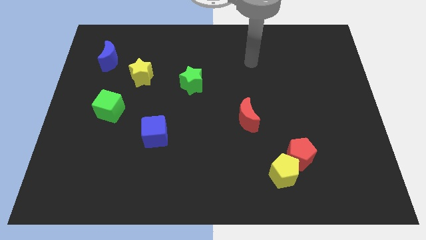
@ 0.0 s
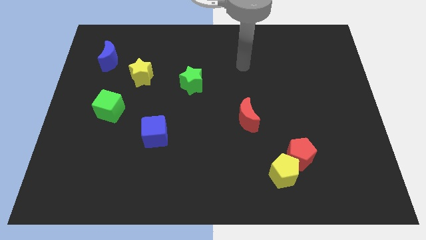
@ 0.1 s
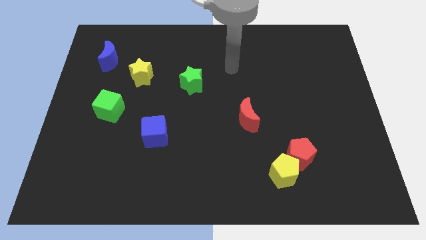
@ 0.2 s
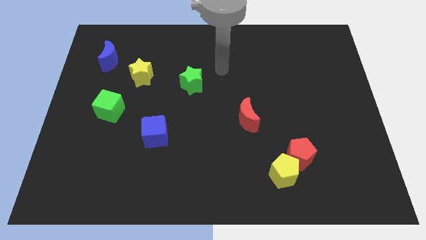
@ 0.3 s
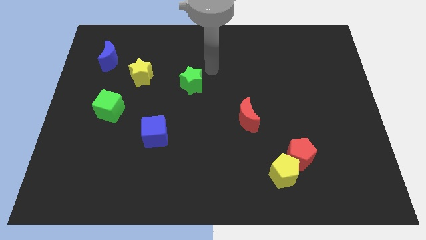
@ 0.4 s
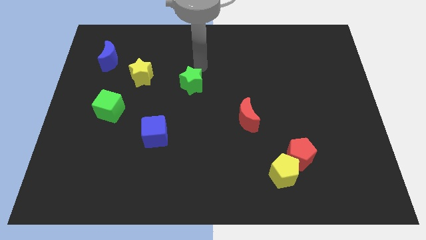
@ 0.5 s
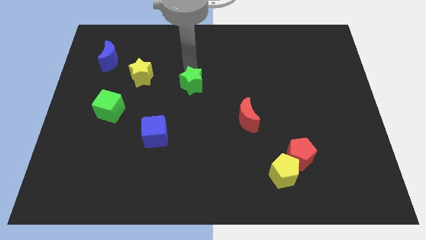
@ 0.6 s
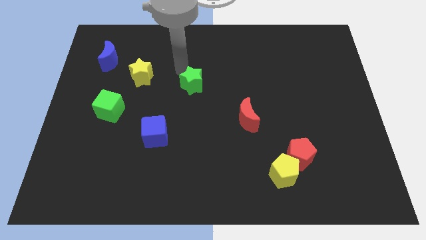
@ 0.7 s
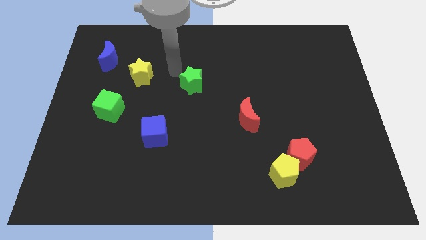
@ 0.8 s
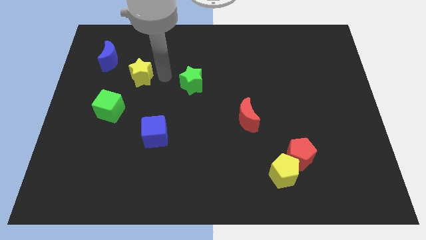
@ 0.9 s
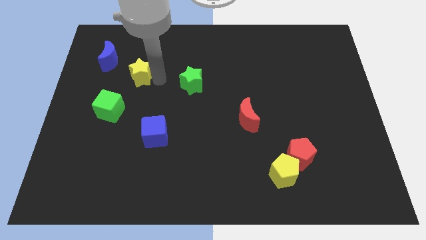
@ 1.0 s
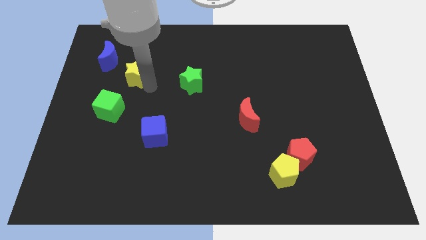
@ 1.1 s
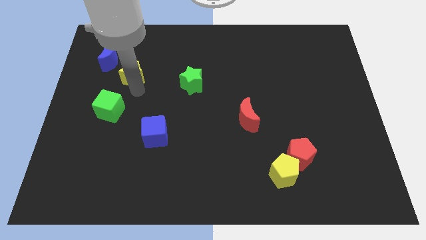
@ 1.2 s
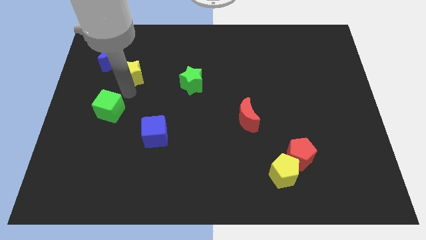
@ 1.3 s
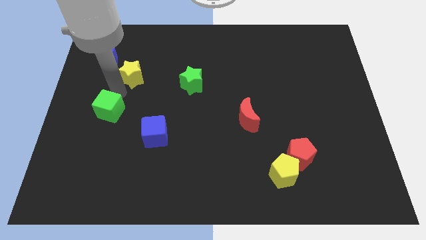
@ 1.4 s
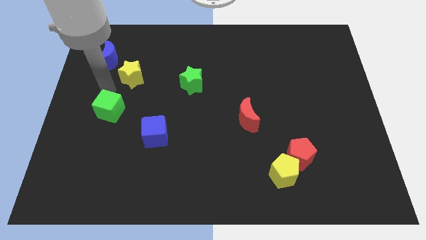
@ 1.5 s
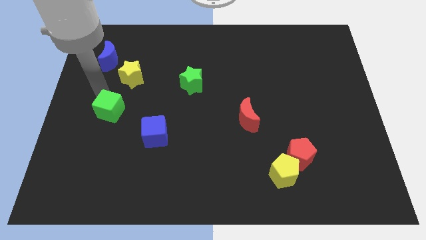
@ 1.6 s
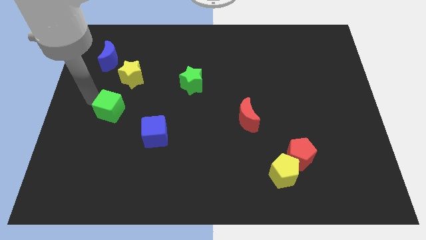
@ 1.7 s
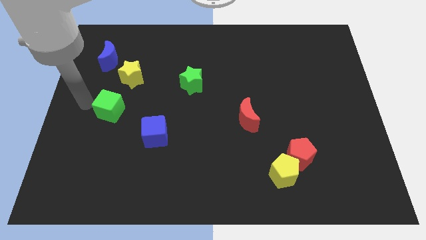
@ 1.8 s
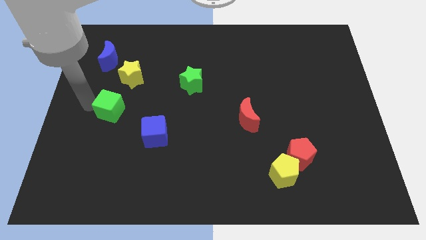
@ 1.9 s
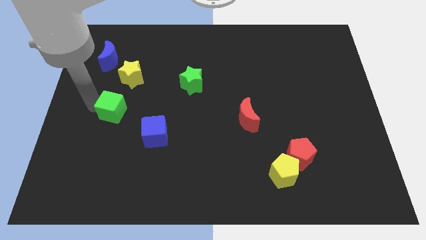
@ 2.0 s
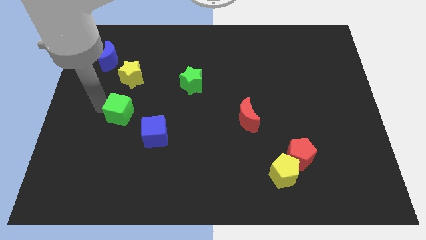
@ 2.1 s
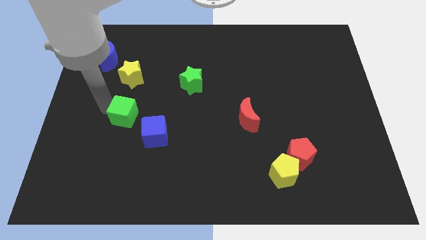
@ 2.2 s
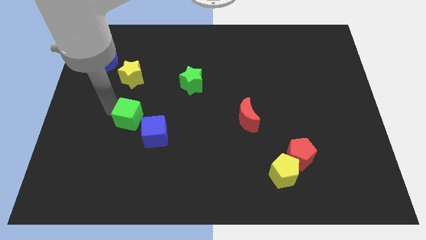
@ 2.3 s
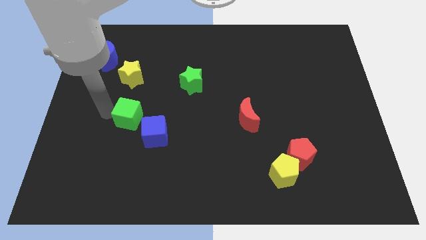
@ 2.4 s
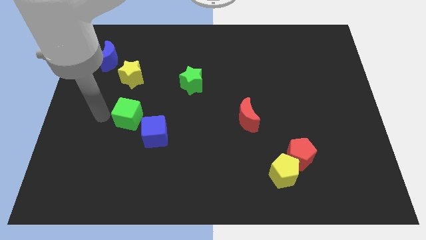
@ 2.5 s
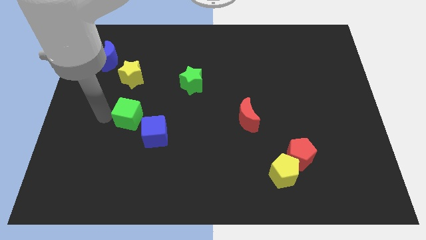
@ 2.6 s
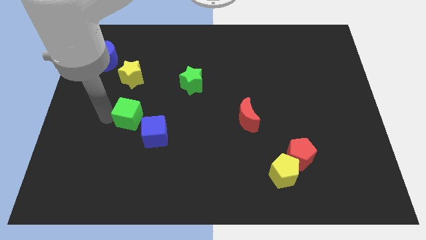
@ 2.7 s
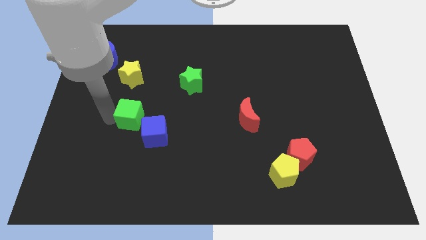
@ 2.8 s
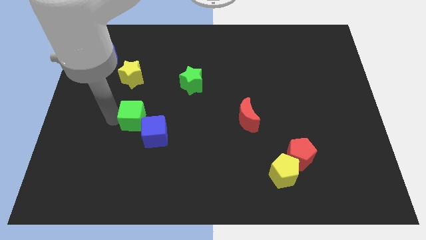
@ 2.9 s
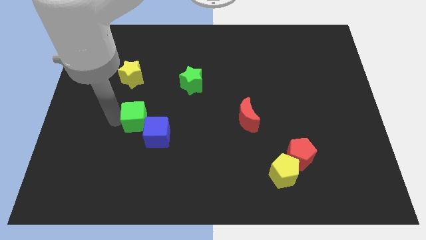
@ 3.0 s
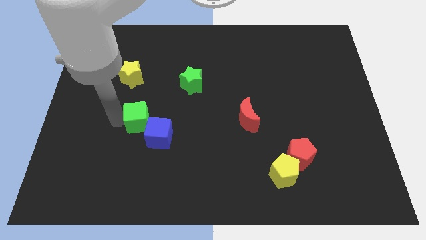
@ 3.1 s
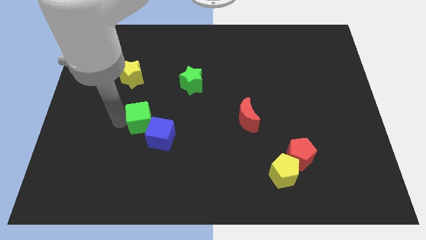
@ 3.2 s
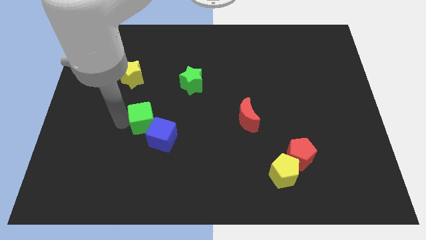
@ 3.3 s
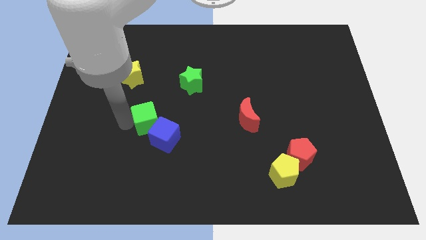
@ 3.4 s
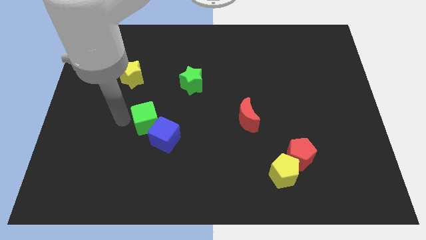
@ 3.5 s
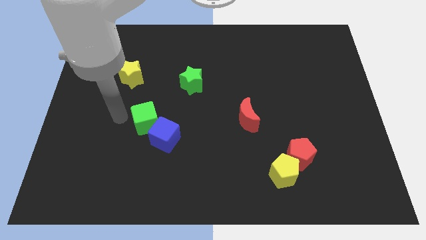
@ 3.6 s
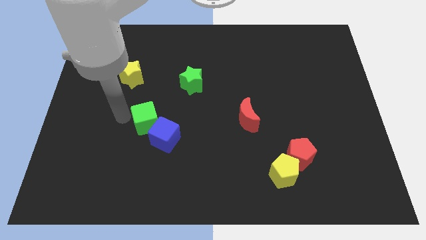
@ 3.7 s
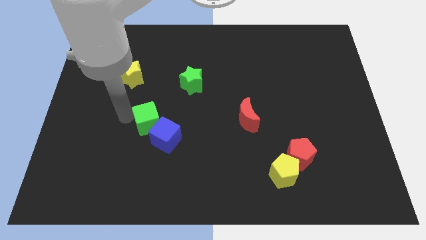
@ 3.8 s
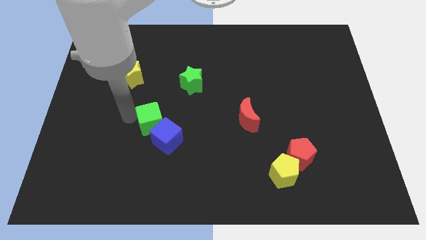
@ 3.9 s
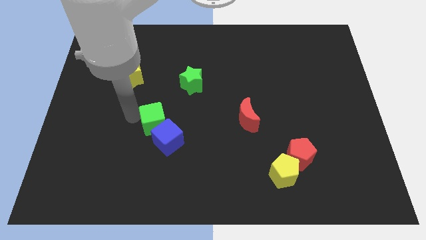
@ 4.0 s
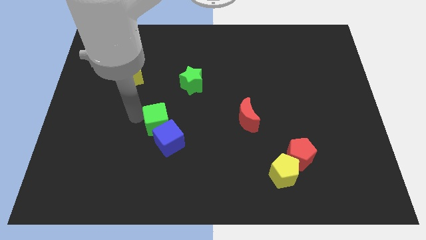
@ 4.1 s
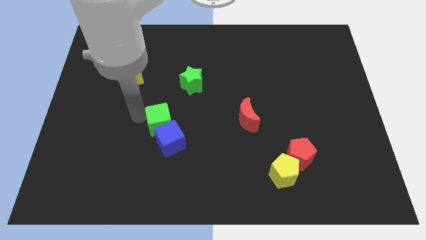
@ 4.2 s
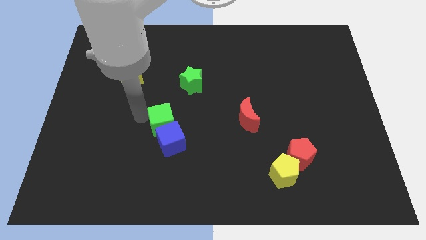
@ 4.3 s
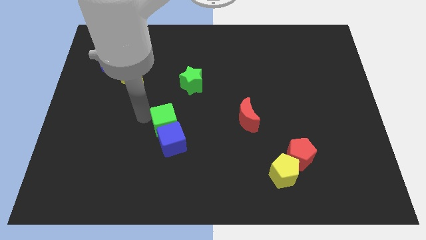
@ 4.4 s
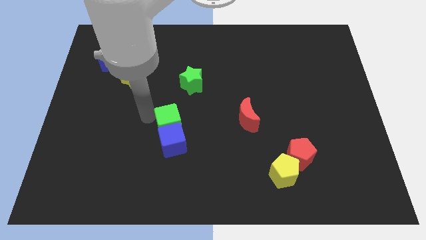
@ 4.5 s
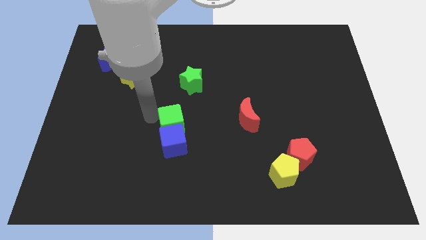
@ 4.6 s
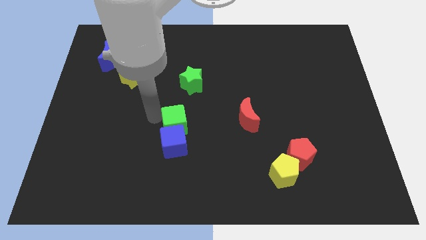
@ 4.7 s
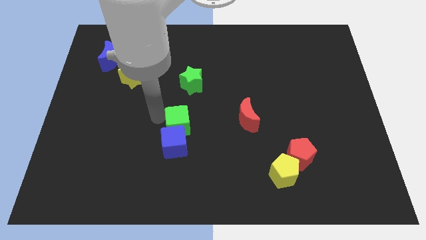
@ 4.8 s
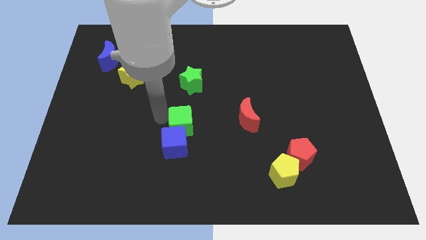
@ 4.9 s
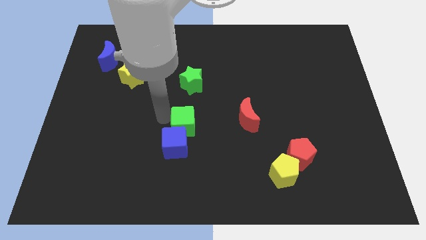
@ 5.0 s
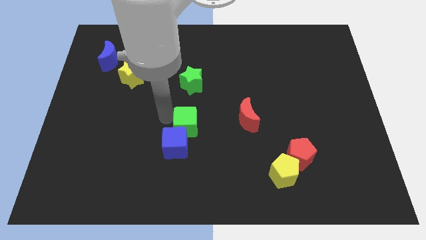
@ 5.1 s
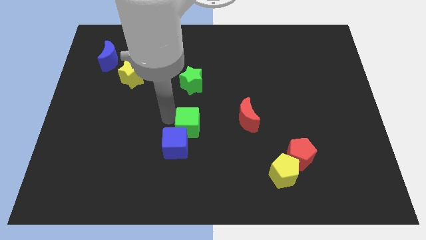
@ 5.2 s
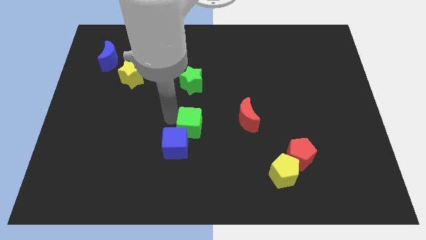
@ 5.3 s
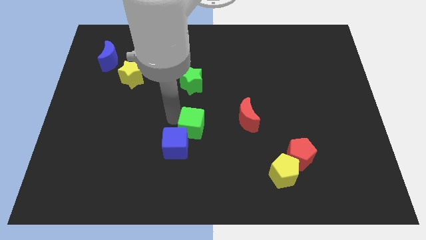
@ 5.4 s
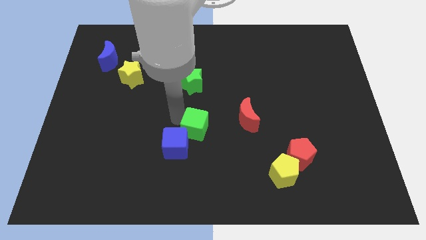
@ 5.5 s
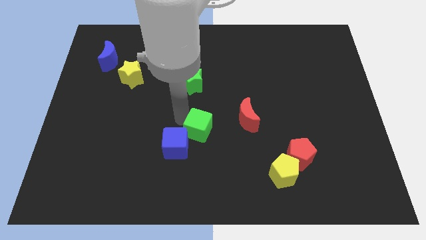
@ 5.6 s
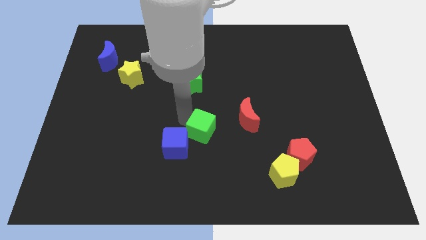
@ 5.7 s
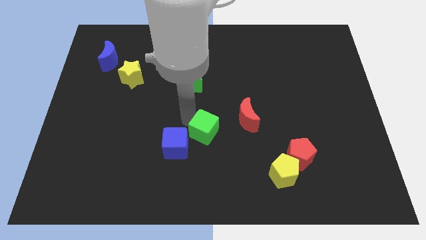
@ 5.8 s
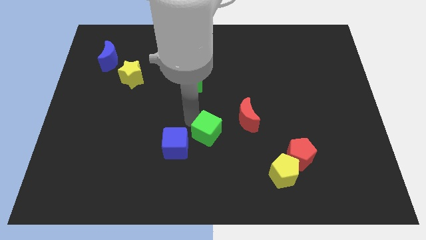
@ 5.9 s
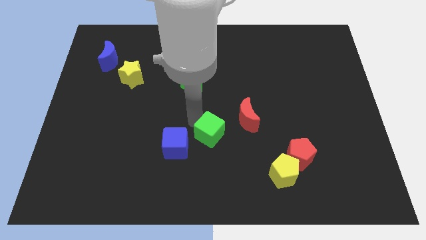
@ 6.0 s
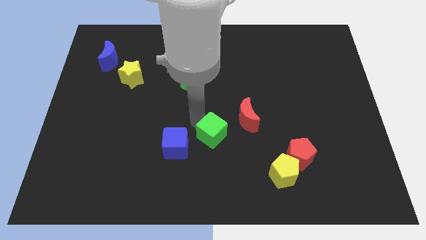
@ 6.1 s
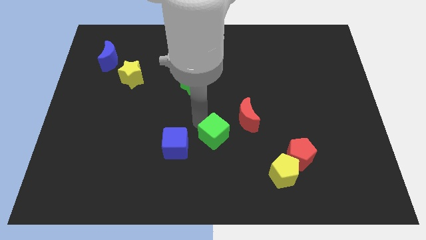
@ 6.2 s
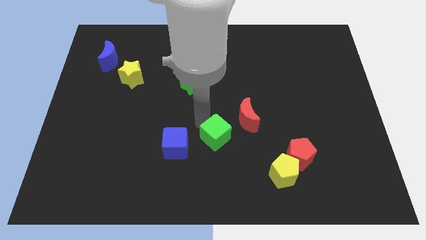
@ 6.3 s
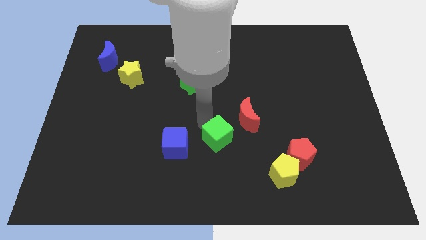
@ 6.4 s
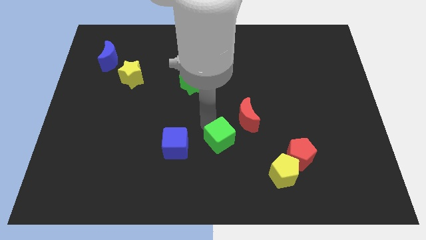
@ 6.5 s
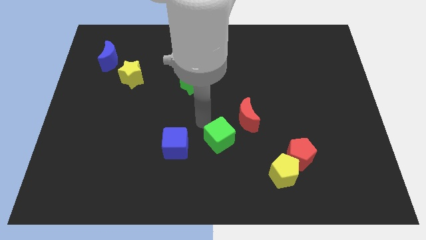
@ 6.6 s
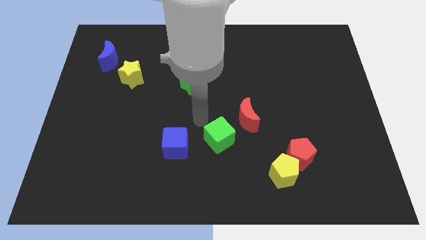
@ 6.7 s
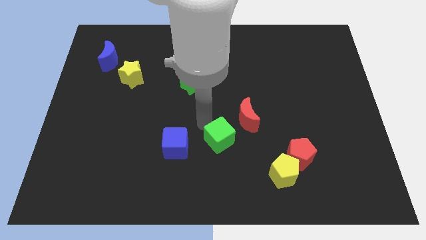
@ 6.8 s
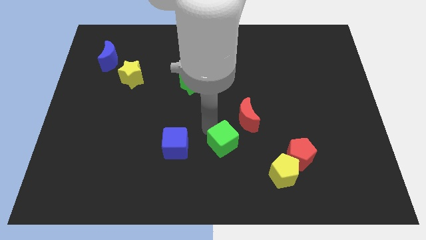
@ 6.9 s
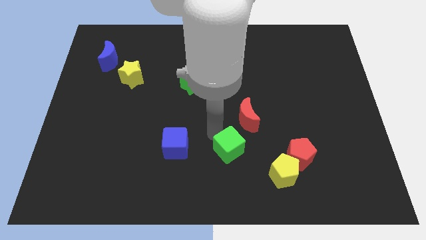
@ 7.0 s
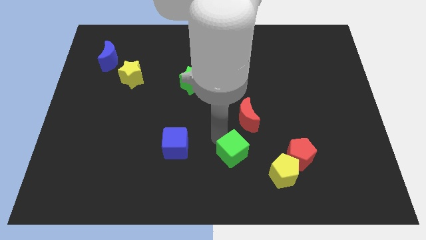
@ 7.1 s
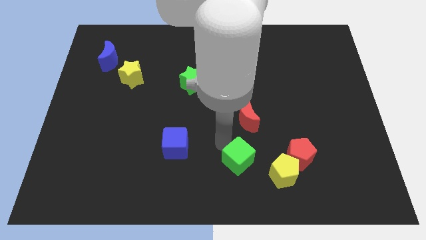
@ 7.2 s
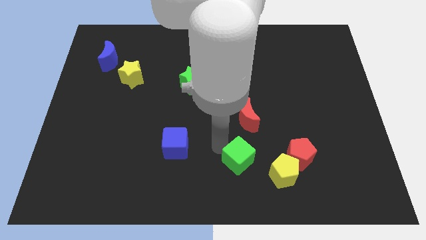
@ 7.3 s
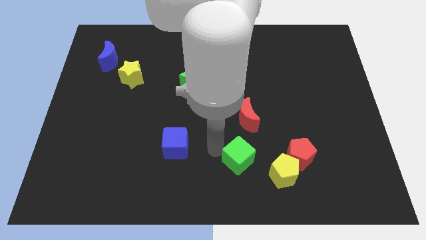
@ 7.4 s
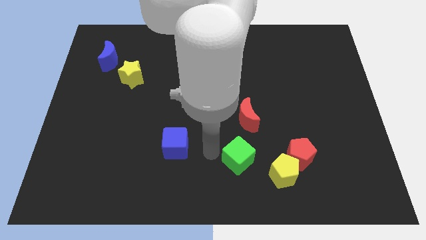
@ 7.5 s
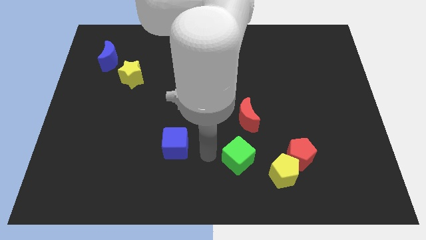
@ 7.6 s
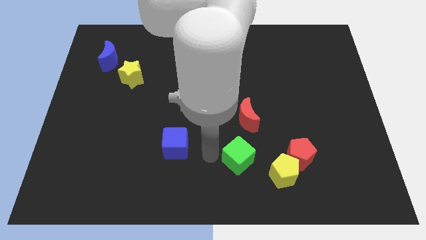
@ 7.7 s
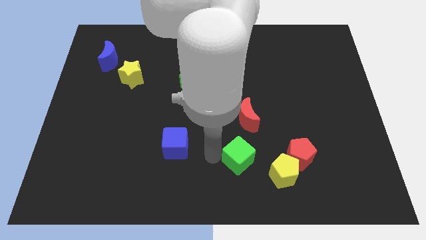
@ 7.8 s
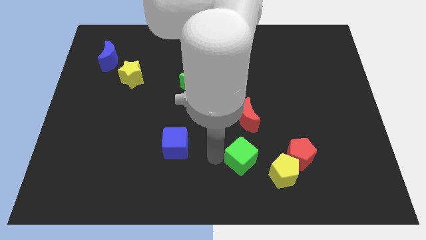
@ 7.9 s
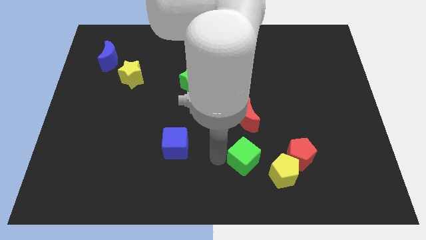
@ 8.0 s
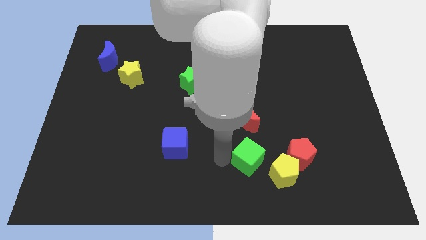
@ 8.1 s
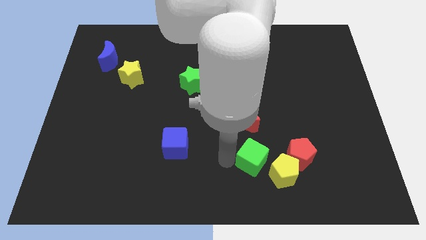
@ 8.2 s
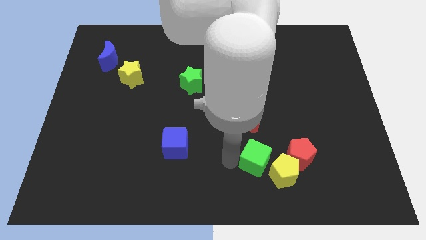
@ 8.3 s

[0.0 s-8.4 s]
push the green cube next to the yellow pentagon
